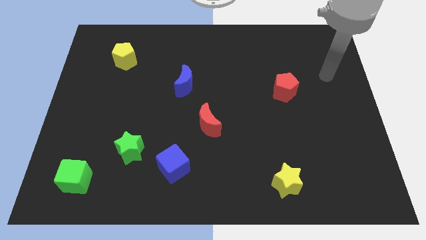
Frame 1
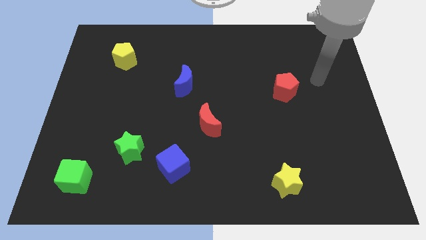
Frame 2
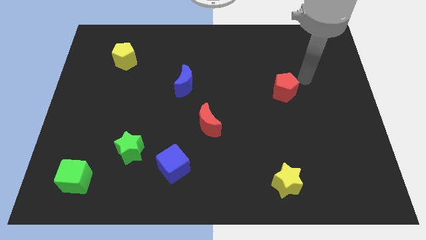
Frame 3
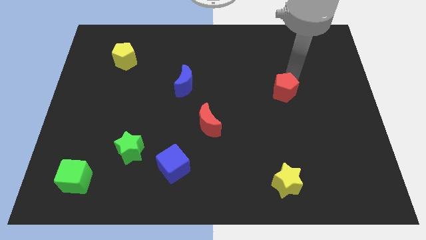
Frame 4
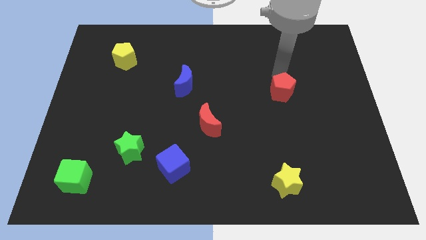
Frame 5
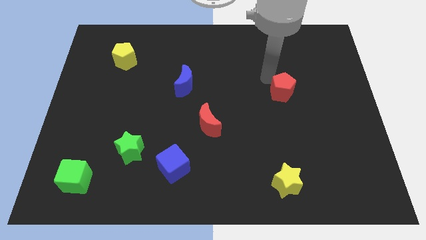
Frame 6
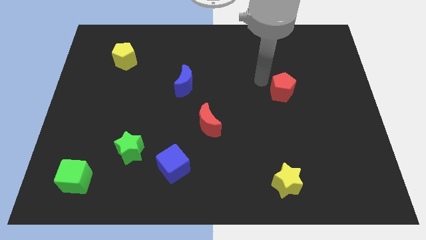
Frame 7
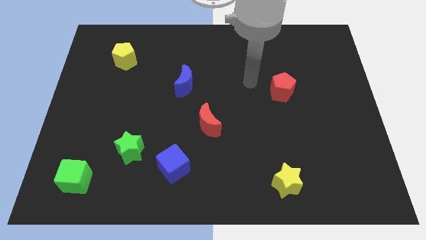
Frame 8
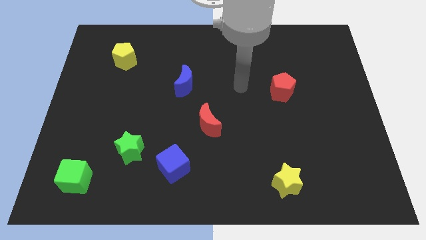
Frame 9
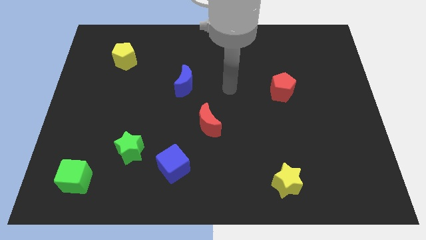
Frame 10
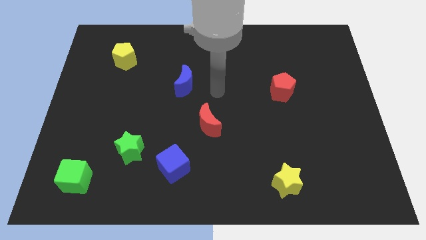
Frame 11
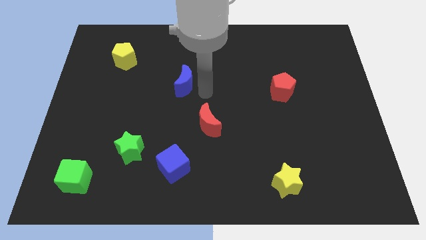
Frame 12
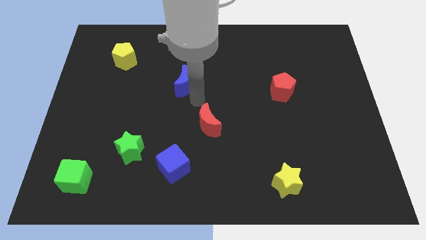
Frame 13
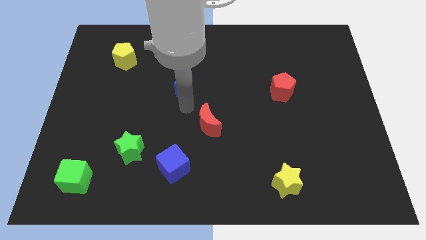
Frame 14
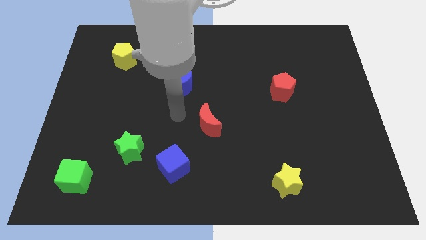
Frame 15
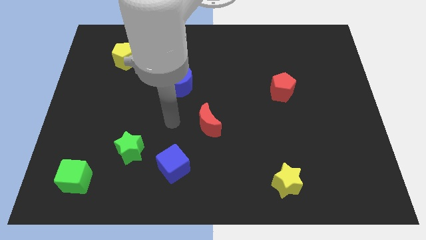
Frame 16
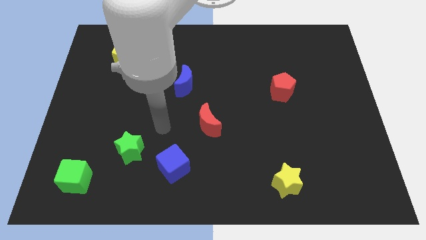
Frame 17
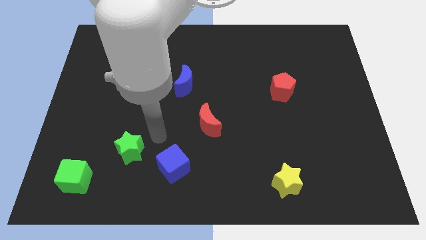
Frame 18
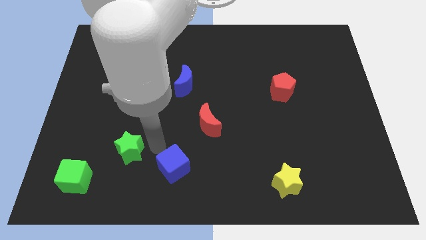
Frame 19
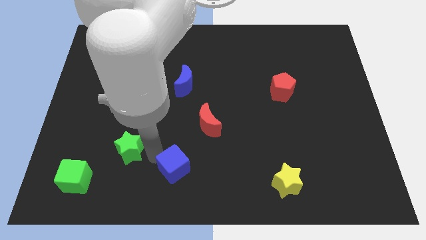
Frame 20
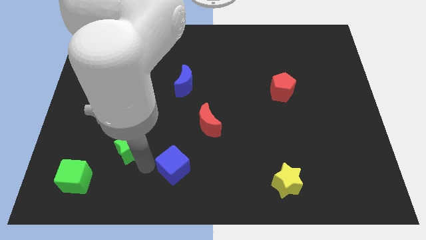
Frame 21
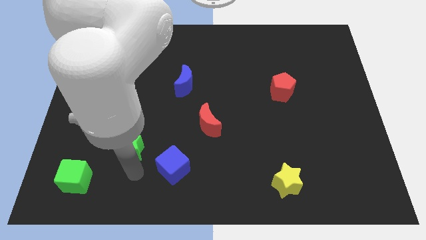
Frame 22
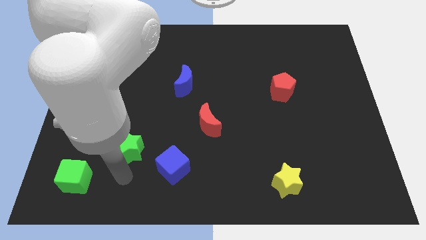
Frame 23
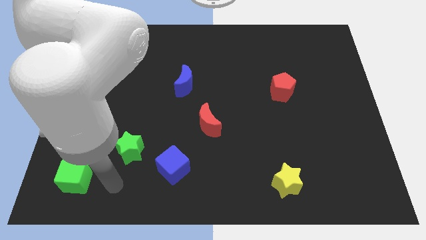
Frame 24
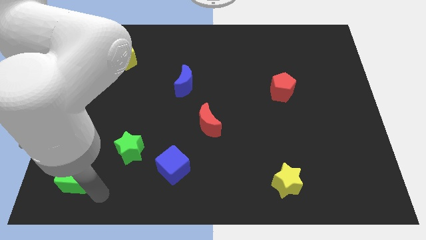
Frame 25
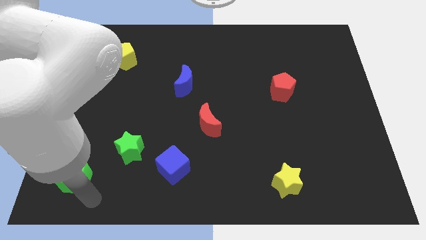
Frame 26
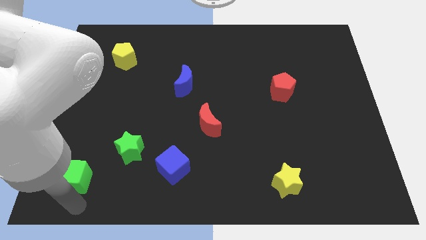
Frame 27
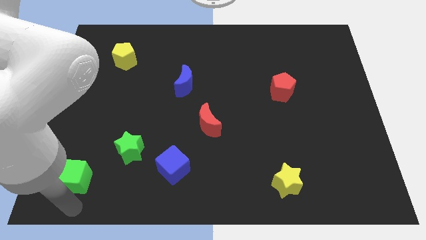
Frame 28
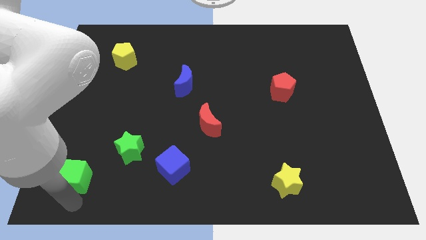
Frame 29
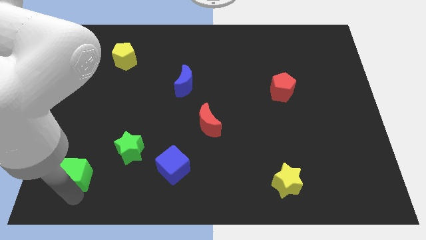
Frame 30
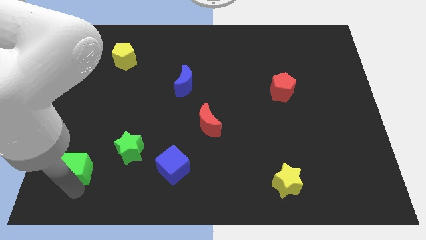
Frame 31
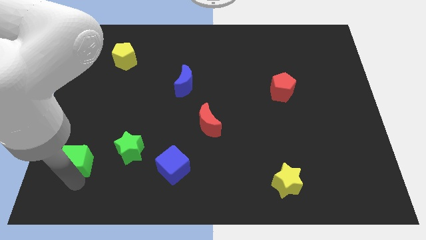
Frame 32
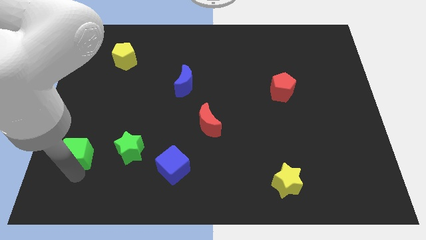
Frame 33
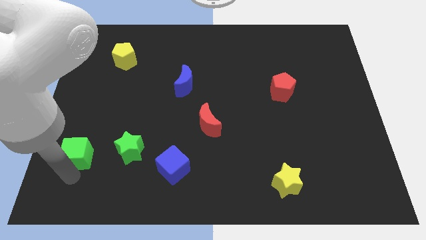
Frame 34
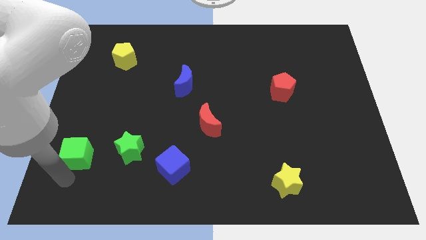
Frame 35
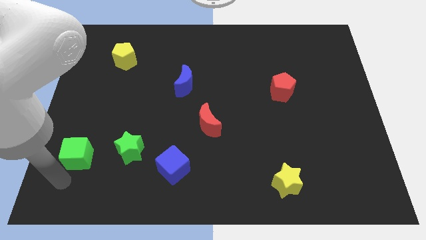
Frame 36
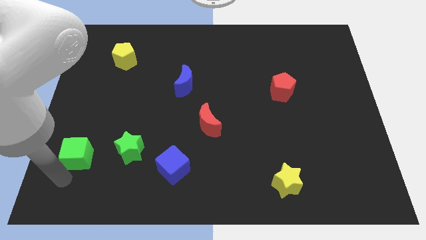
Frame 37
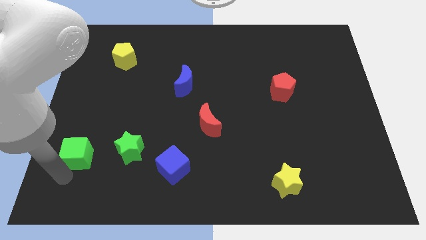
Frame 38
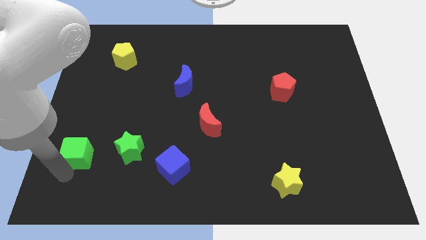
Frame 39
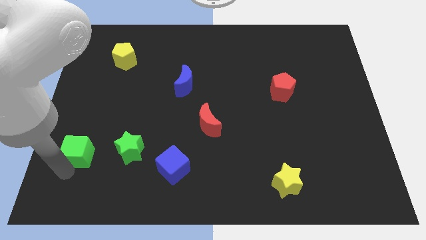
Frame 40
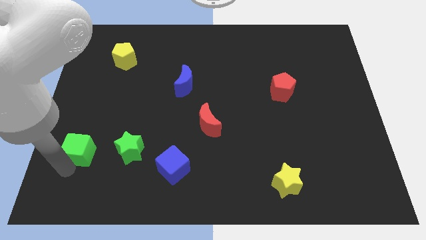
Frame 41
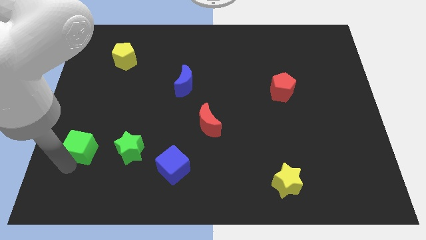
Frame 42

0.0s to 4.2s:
slightly move the green cube upwards

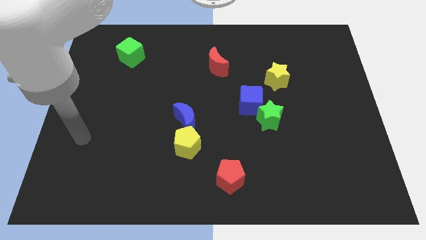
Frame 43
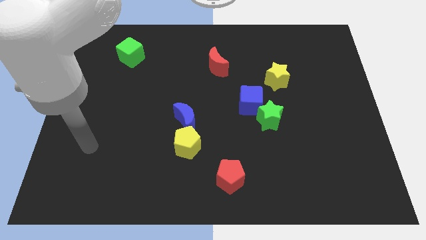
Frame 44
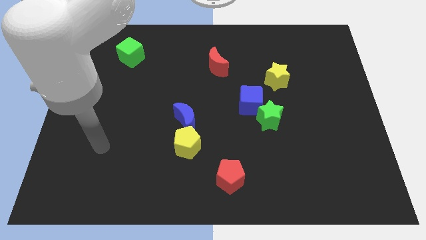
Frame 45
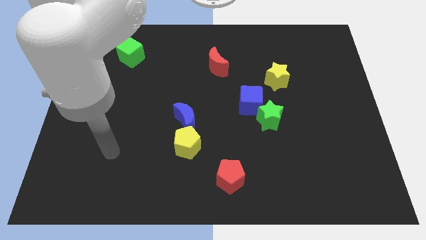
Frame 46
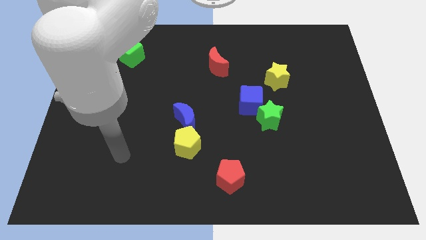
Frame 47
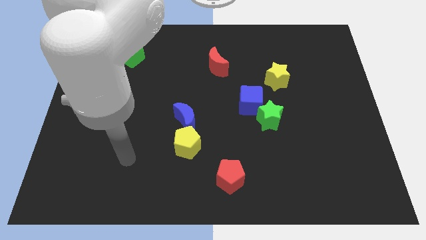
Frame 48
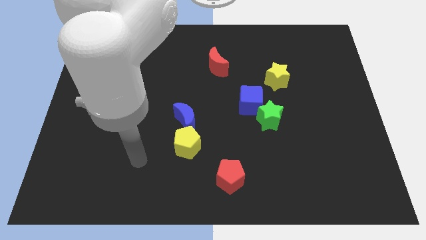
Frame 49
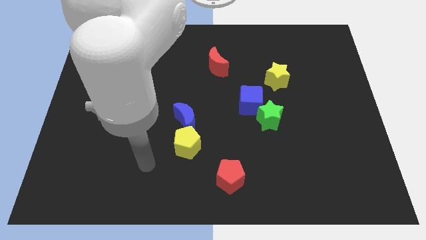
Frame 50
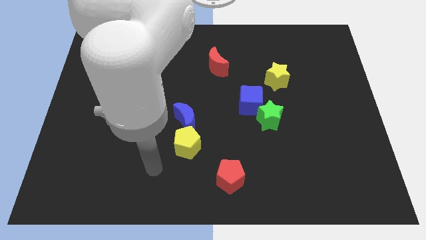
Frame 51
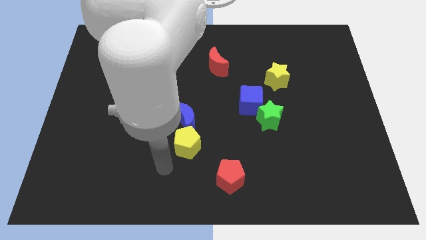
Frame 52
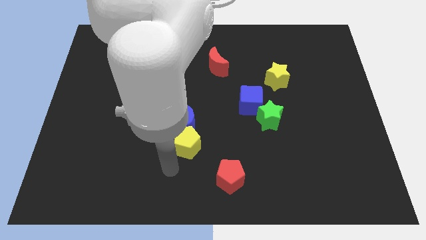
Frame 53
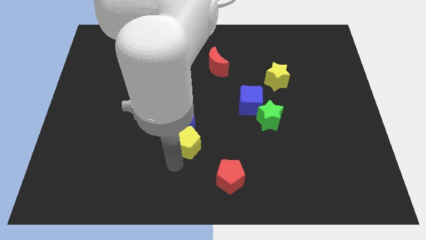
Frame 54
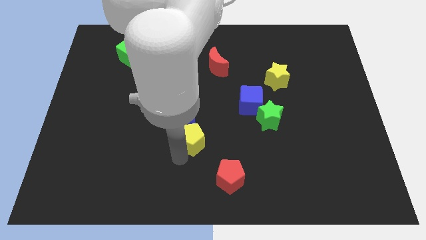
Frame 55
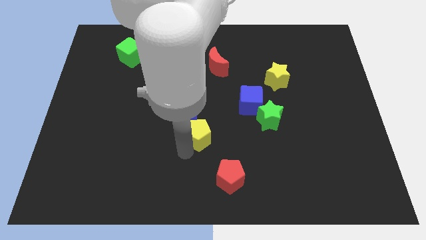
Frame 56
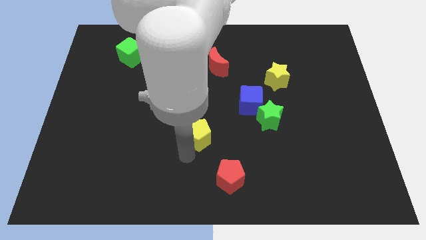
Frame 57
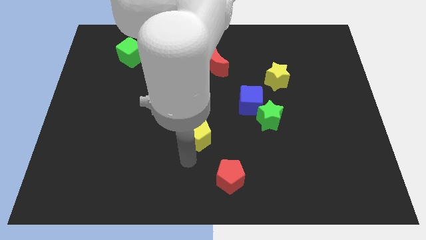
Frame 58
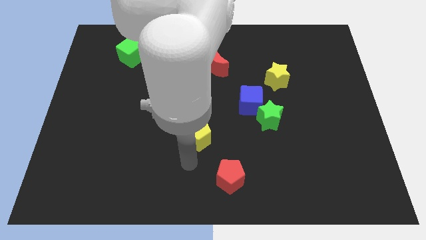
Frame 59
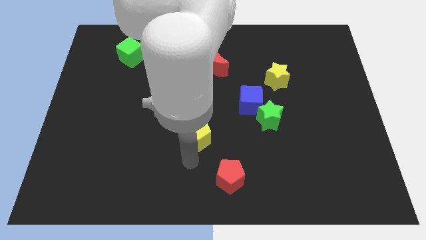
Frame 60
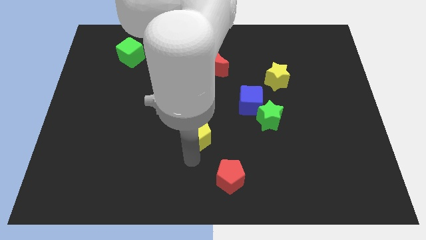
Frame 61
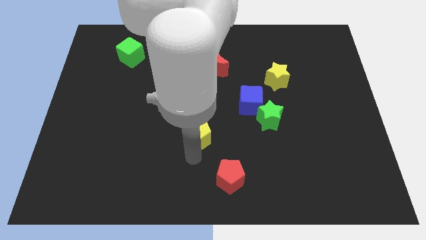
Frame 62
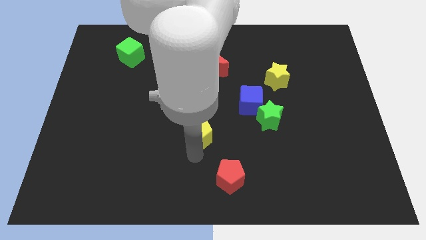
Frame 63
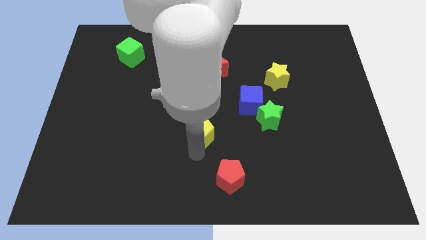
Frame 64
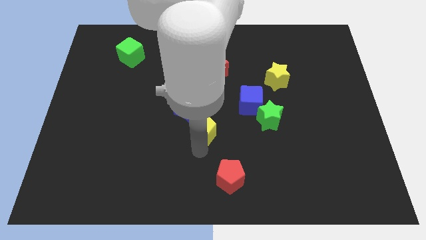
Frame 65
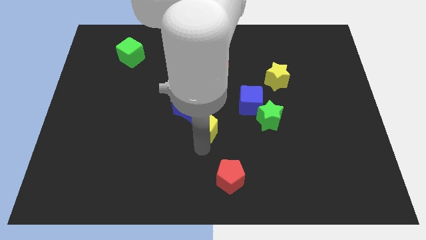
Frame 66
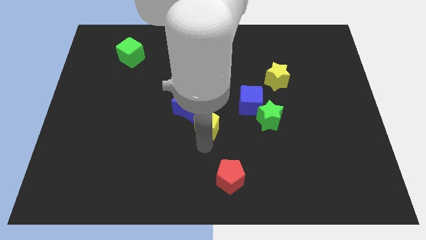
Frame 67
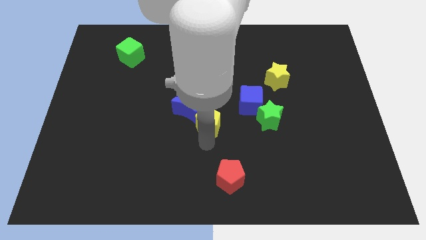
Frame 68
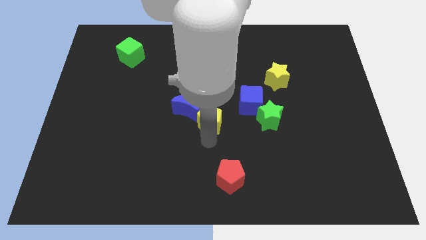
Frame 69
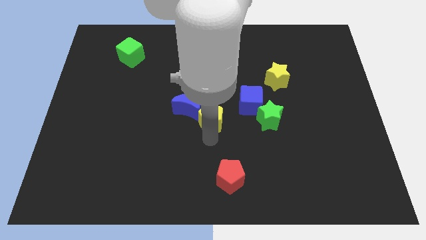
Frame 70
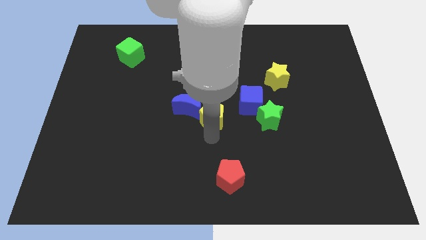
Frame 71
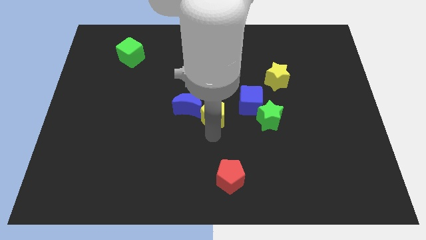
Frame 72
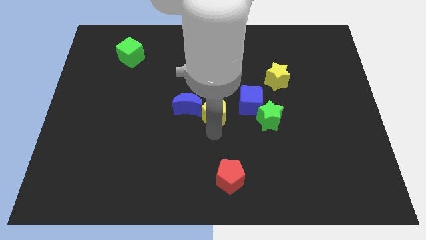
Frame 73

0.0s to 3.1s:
slightly move the yellow pentagon up

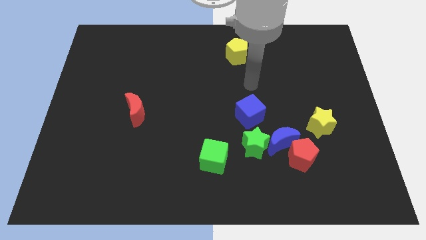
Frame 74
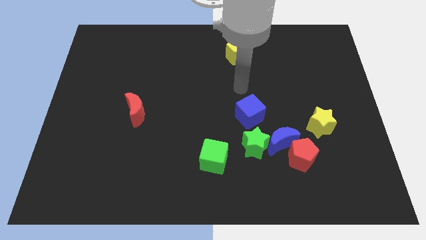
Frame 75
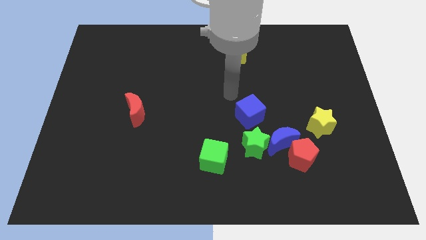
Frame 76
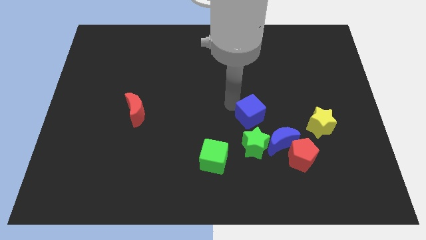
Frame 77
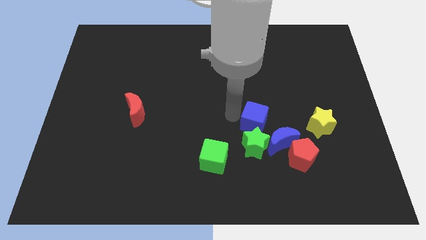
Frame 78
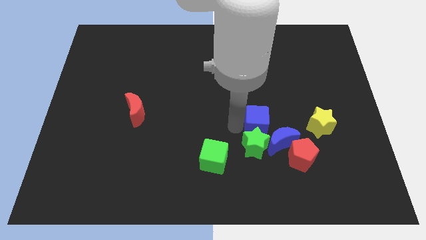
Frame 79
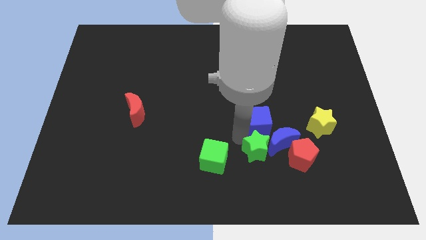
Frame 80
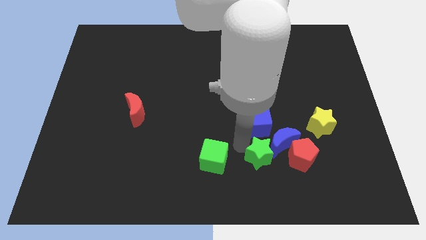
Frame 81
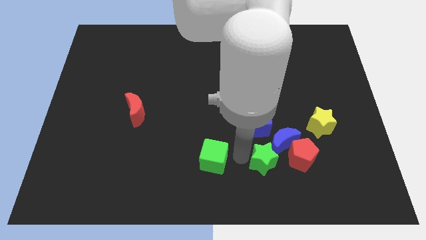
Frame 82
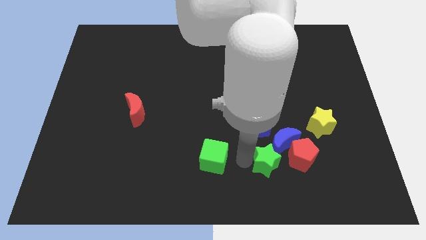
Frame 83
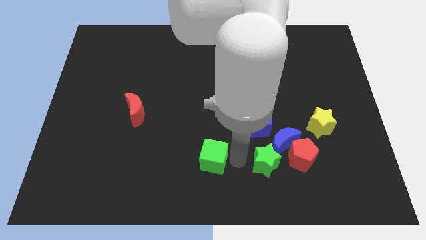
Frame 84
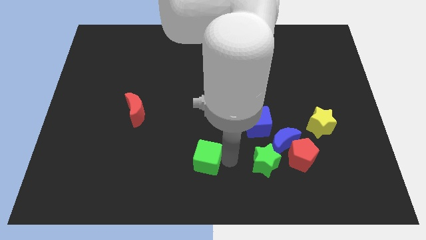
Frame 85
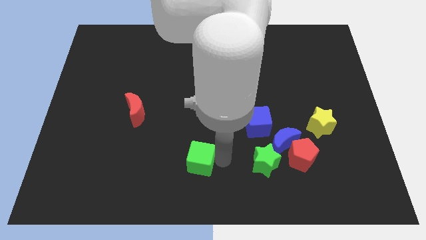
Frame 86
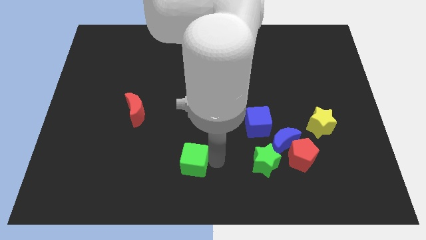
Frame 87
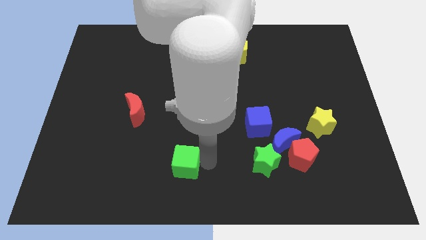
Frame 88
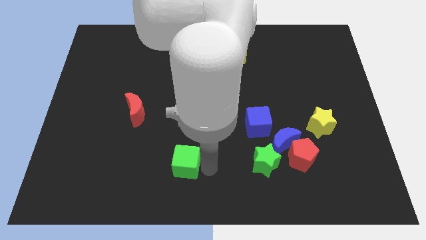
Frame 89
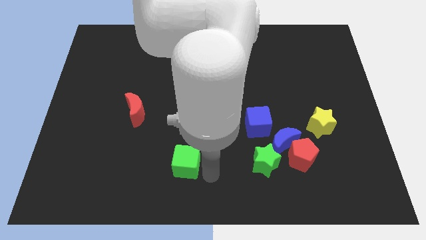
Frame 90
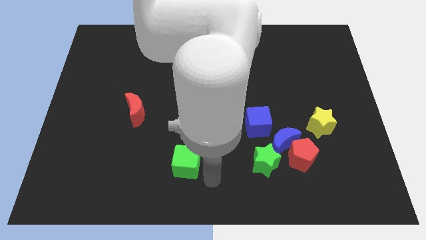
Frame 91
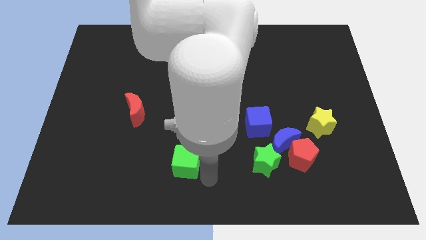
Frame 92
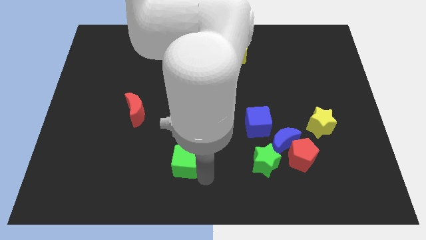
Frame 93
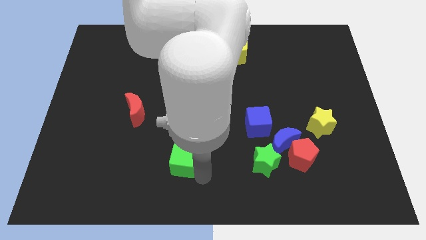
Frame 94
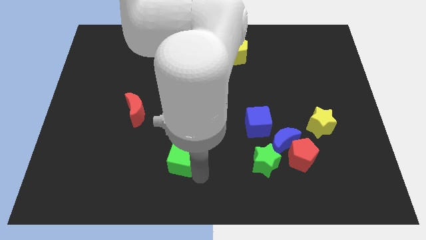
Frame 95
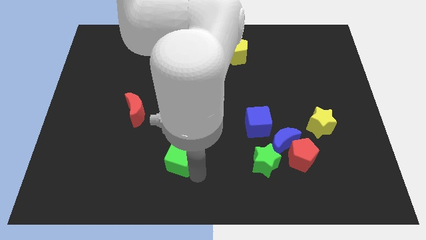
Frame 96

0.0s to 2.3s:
slightly slide the green cube left
